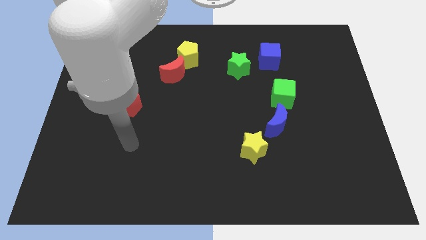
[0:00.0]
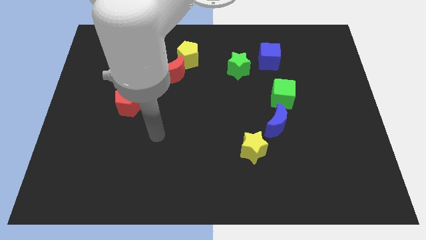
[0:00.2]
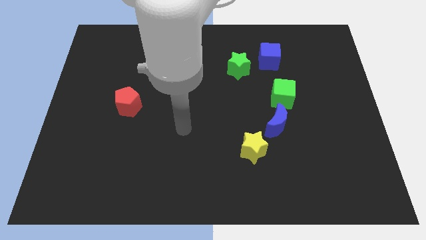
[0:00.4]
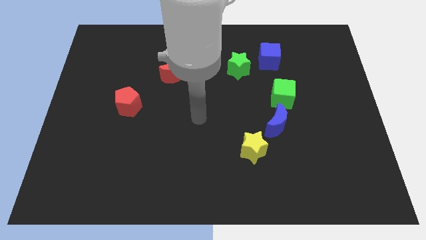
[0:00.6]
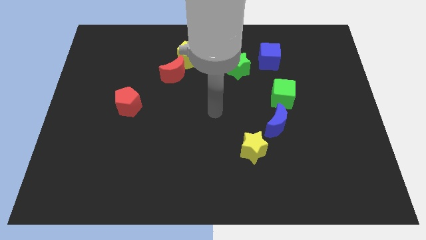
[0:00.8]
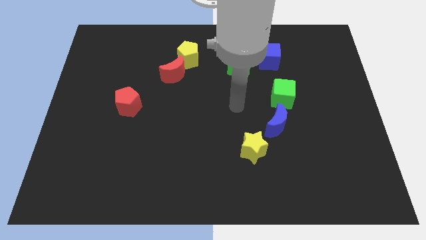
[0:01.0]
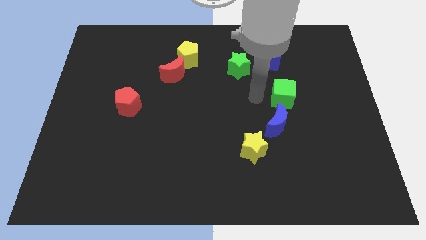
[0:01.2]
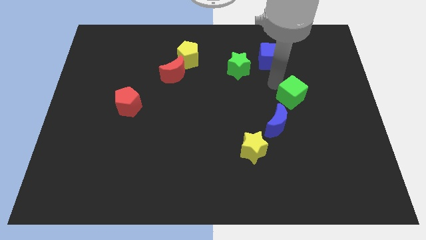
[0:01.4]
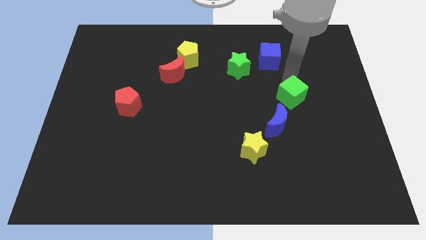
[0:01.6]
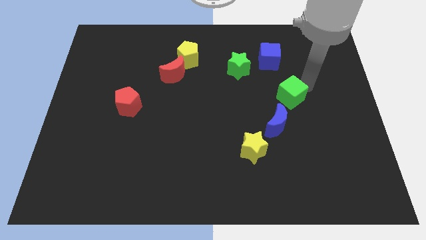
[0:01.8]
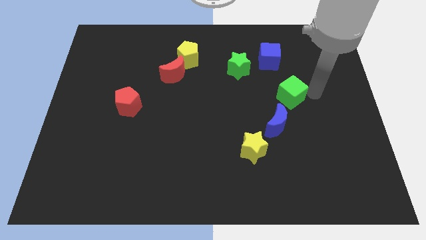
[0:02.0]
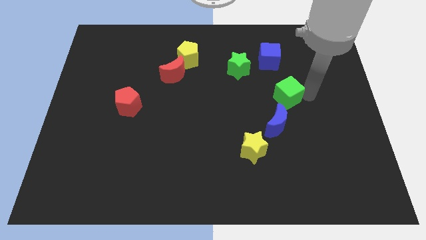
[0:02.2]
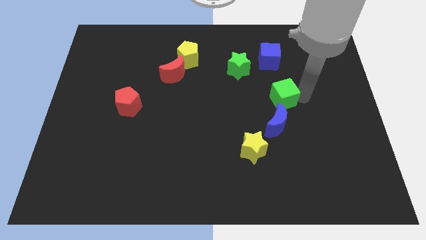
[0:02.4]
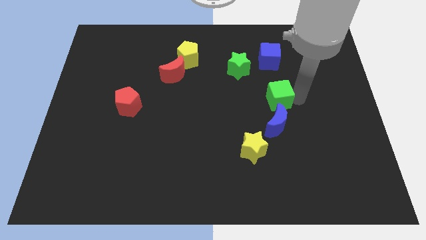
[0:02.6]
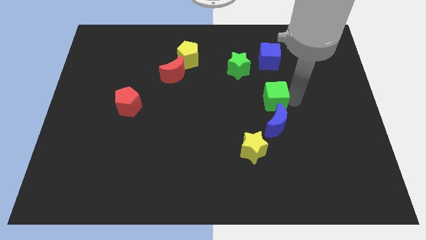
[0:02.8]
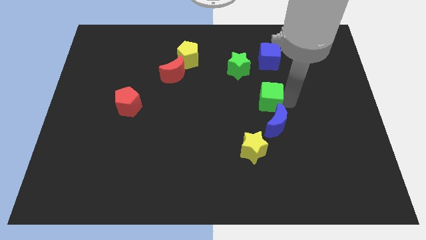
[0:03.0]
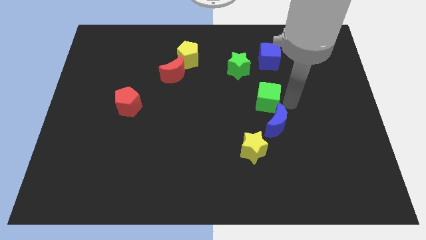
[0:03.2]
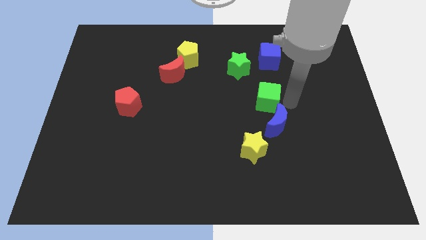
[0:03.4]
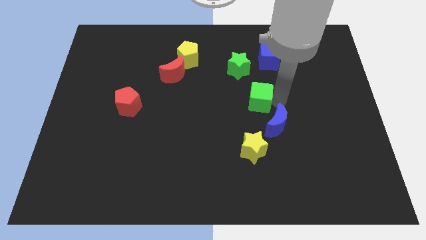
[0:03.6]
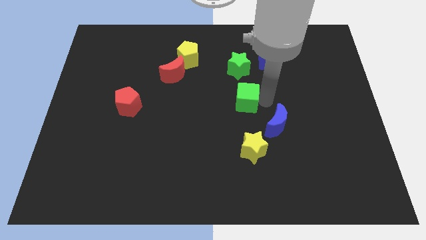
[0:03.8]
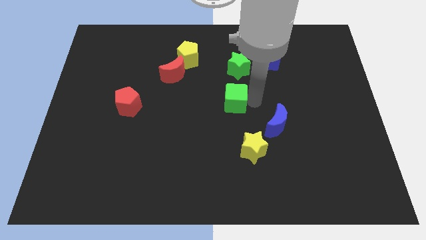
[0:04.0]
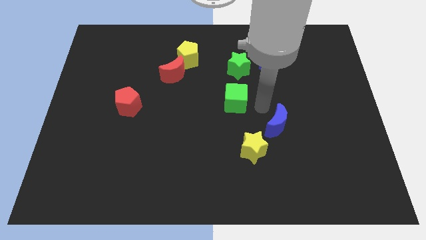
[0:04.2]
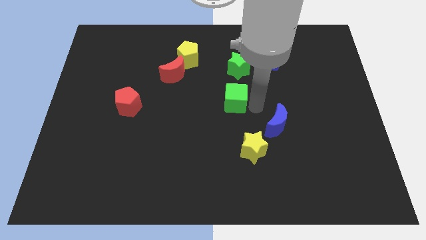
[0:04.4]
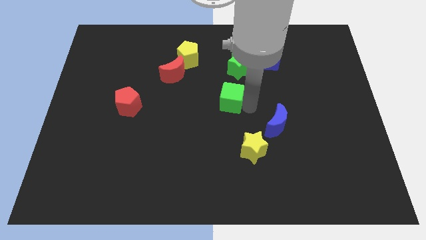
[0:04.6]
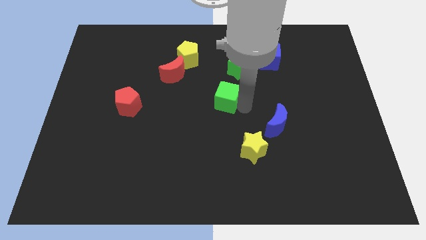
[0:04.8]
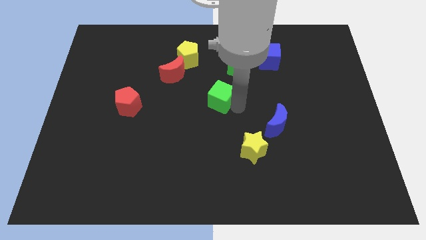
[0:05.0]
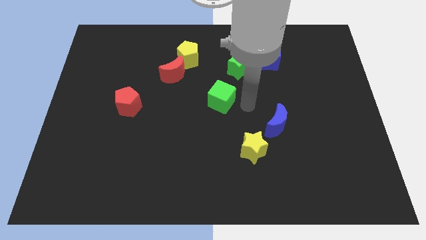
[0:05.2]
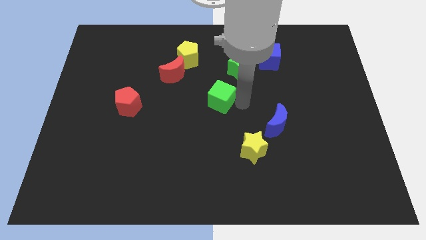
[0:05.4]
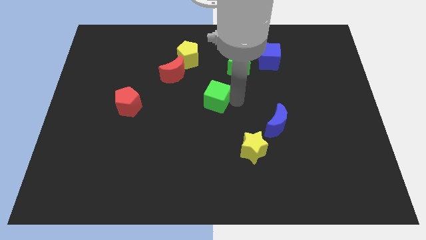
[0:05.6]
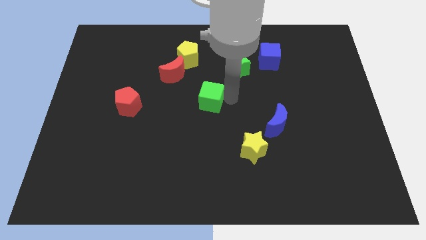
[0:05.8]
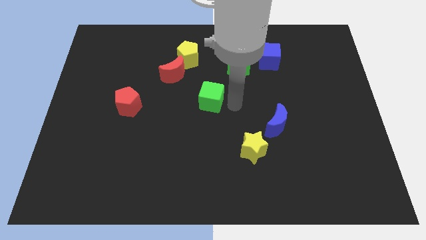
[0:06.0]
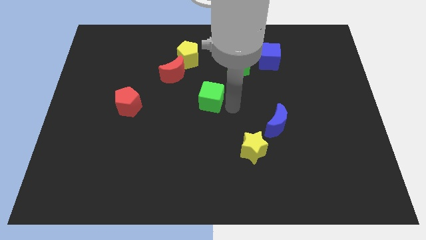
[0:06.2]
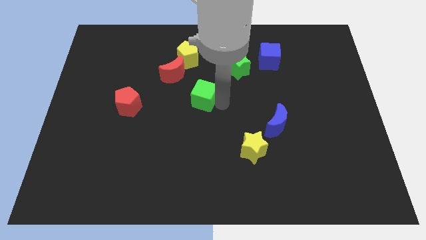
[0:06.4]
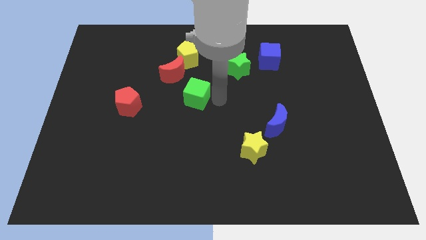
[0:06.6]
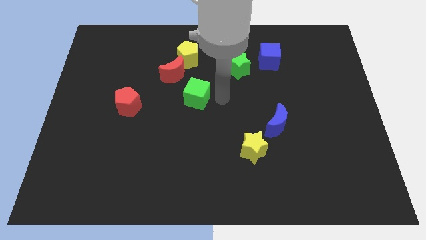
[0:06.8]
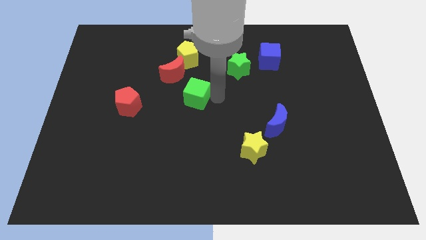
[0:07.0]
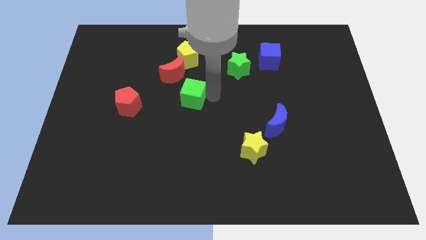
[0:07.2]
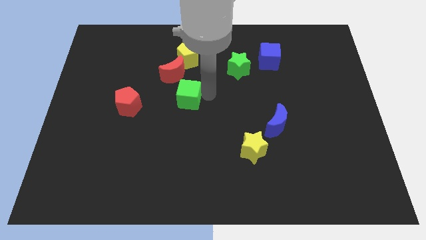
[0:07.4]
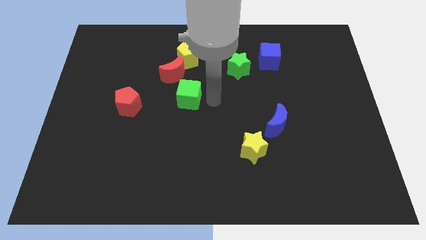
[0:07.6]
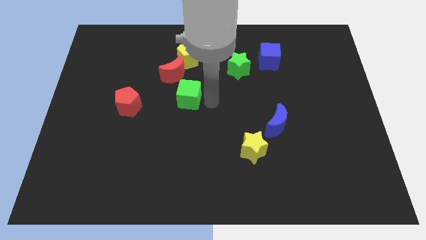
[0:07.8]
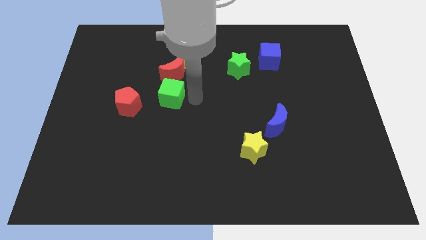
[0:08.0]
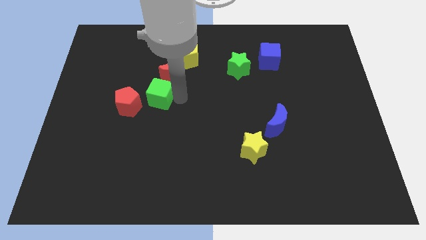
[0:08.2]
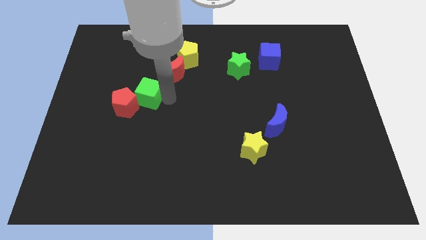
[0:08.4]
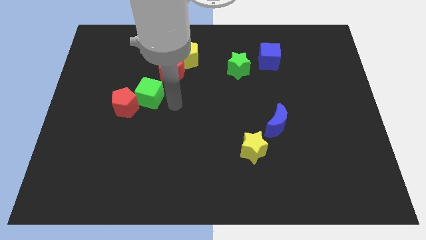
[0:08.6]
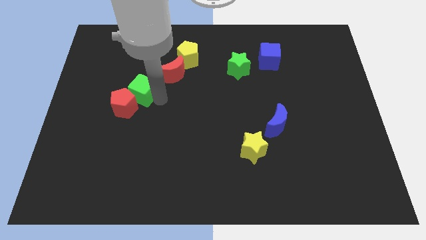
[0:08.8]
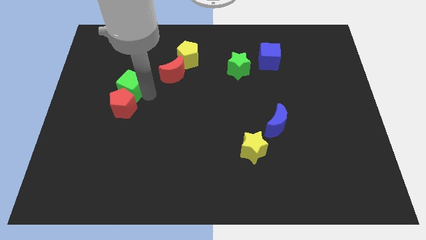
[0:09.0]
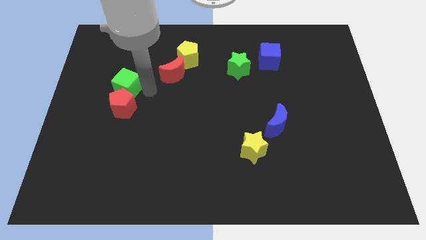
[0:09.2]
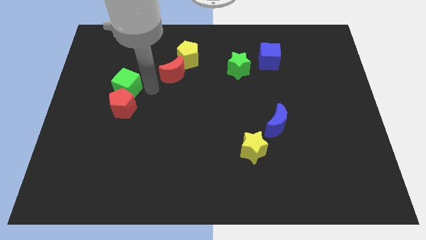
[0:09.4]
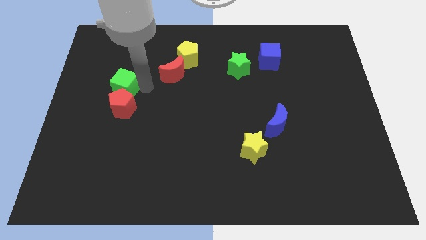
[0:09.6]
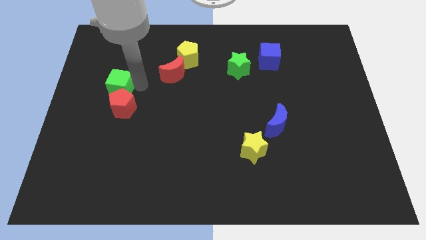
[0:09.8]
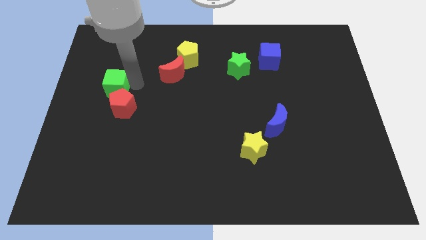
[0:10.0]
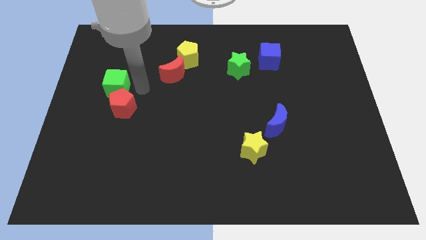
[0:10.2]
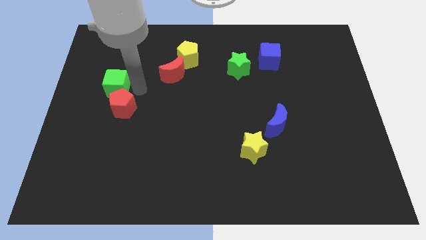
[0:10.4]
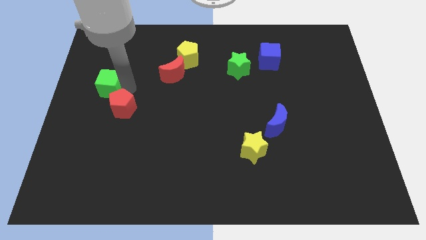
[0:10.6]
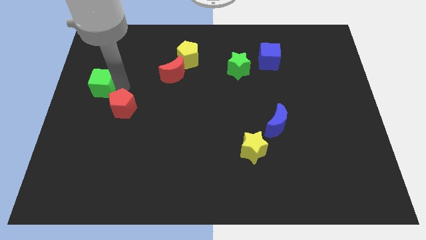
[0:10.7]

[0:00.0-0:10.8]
slide the green cube to the center left

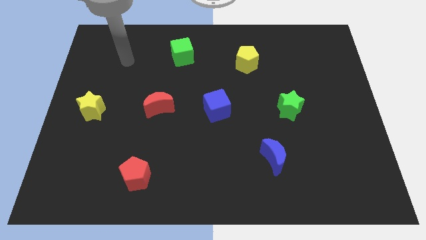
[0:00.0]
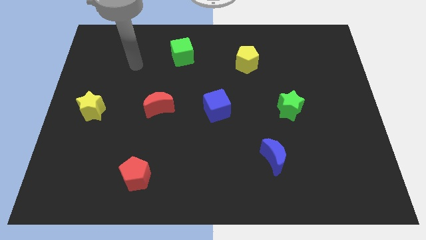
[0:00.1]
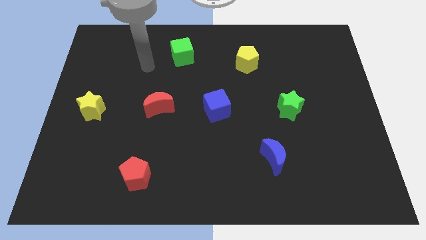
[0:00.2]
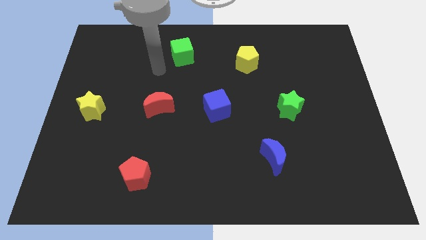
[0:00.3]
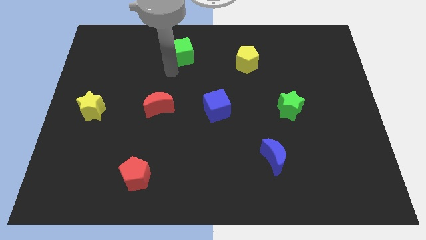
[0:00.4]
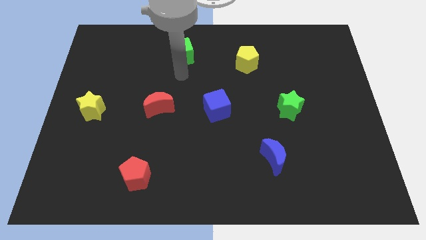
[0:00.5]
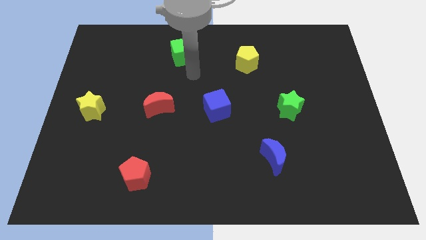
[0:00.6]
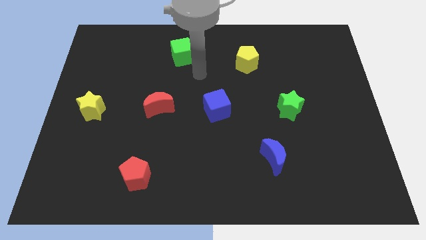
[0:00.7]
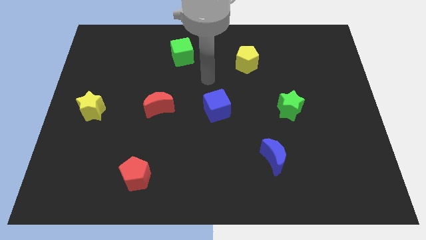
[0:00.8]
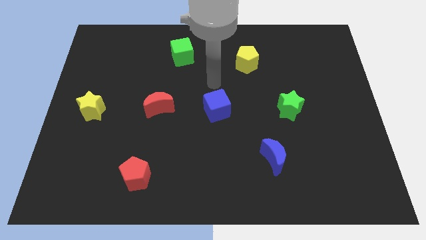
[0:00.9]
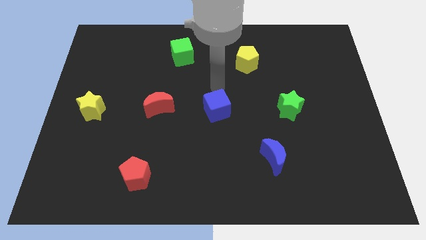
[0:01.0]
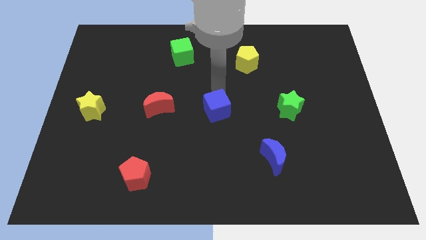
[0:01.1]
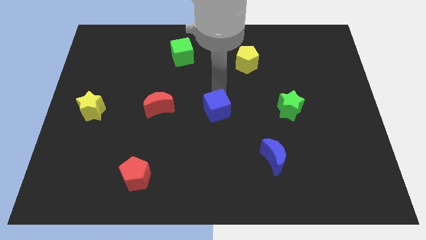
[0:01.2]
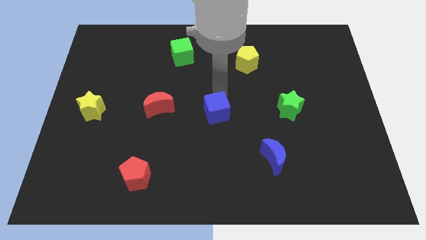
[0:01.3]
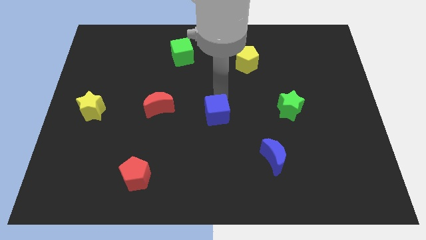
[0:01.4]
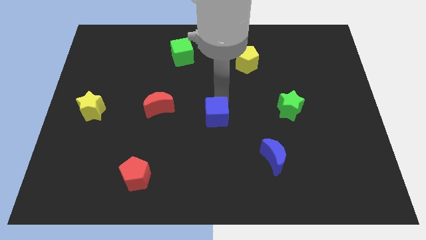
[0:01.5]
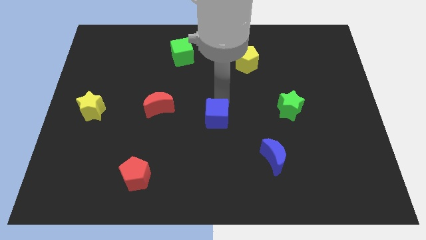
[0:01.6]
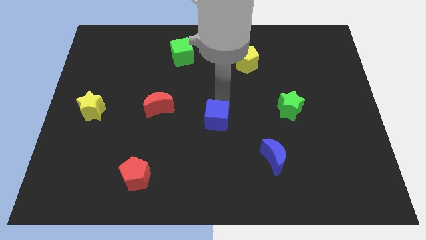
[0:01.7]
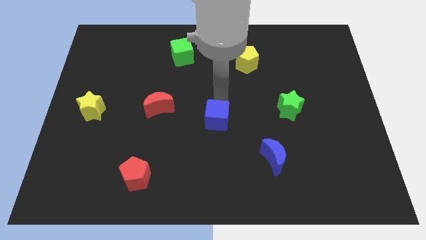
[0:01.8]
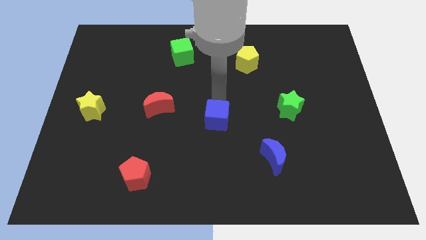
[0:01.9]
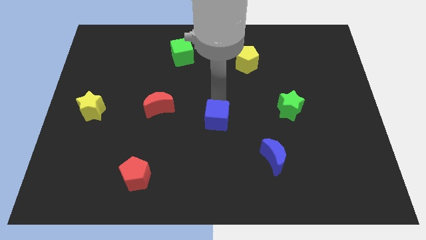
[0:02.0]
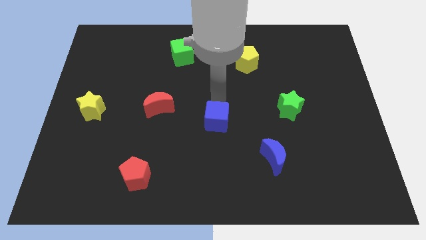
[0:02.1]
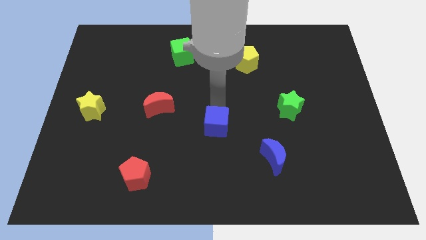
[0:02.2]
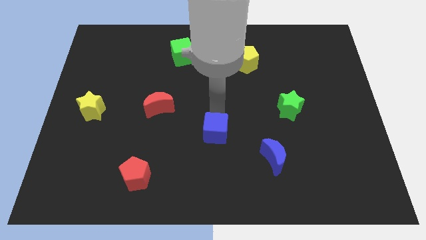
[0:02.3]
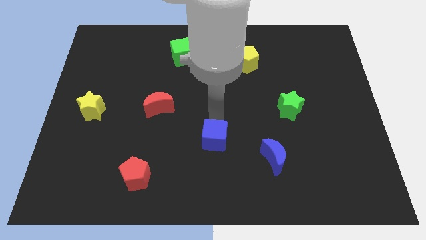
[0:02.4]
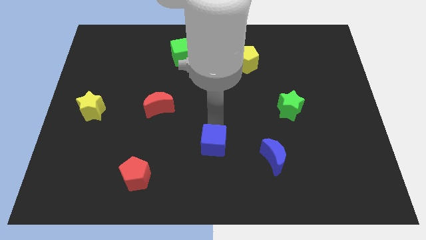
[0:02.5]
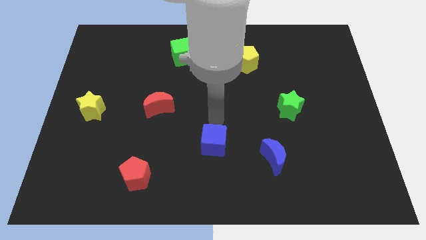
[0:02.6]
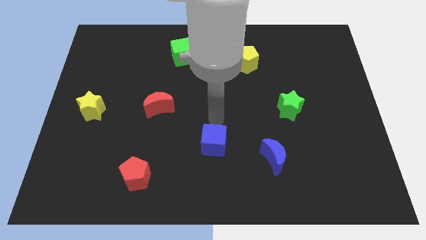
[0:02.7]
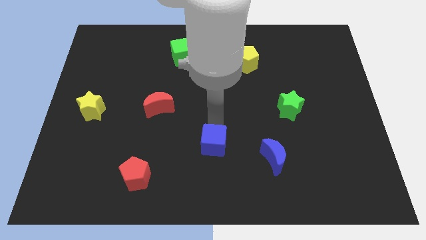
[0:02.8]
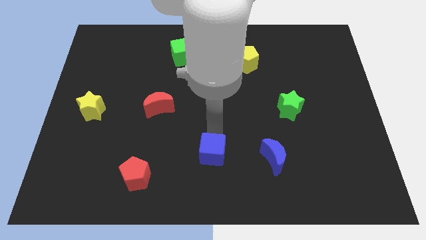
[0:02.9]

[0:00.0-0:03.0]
put the blue cube to the bottom side

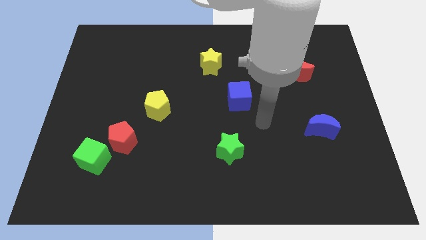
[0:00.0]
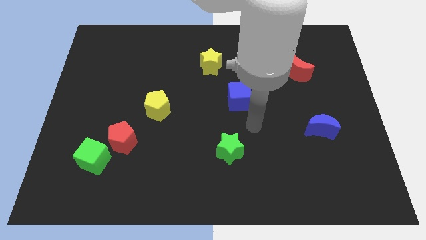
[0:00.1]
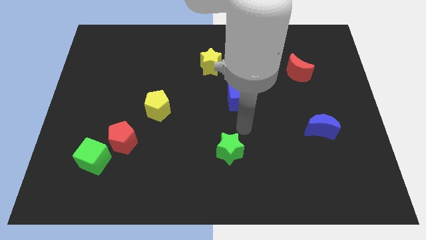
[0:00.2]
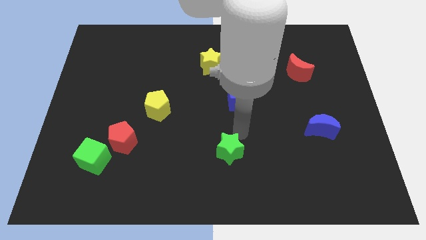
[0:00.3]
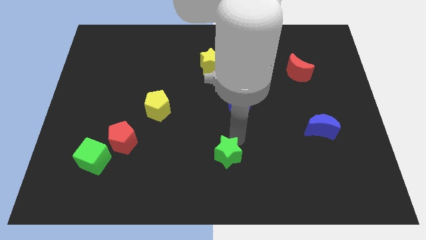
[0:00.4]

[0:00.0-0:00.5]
move the green star to the bottom side
